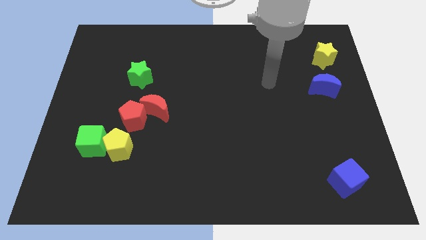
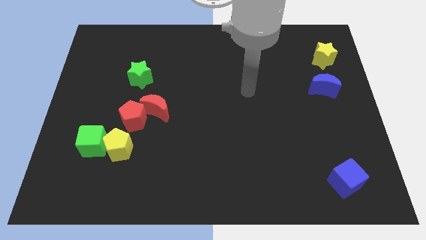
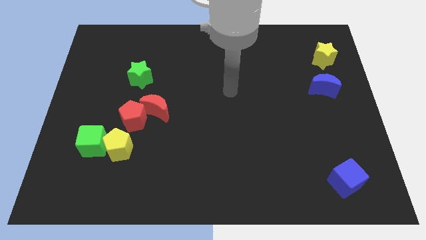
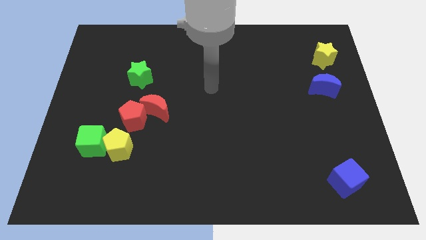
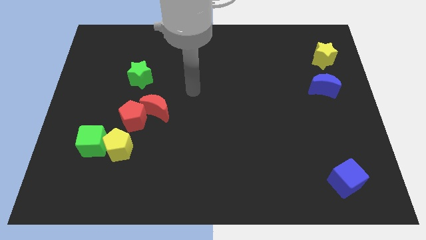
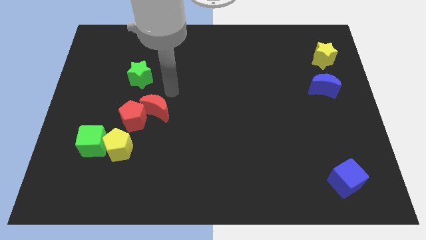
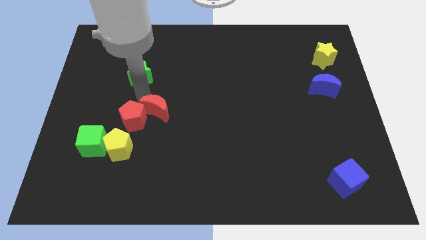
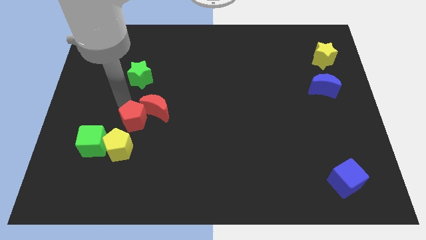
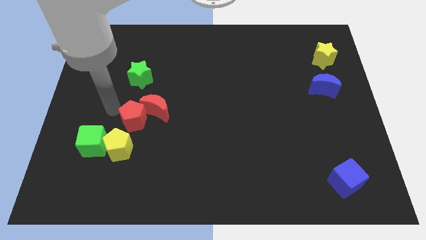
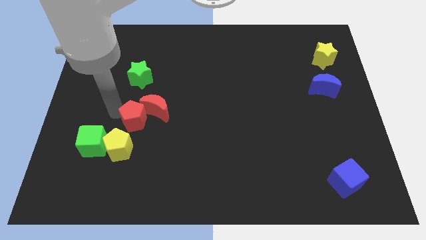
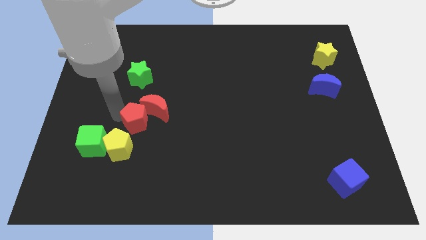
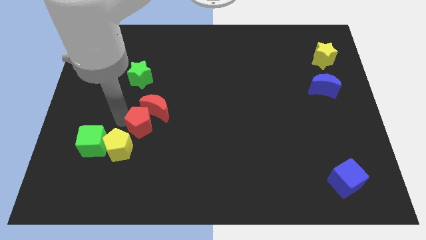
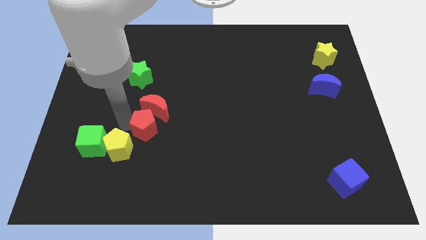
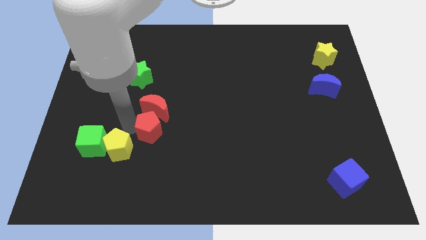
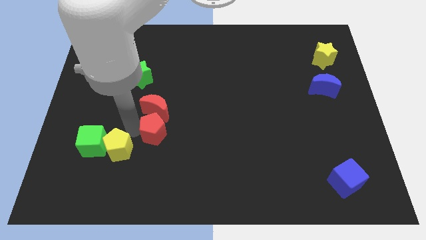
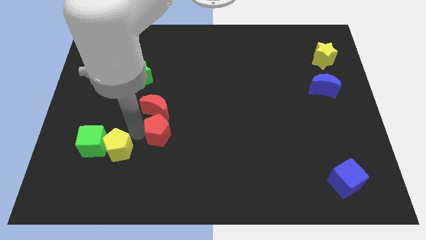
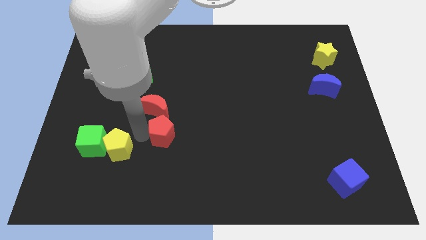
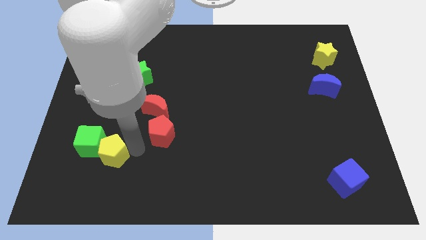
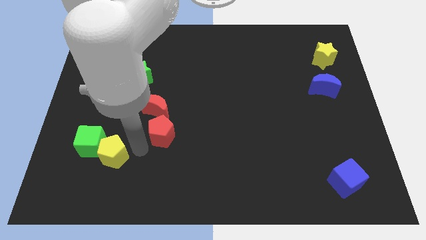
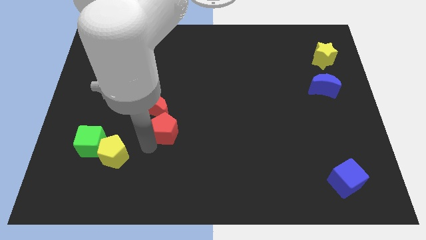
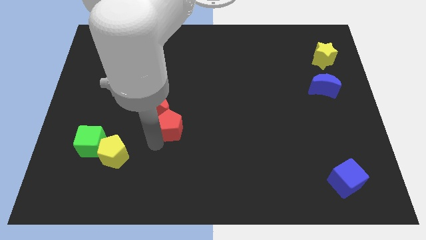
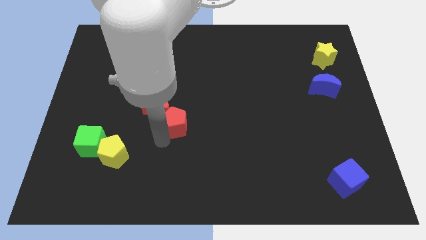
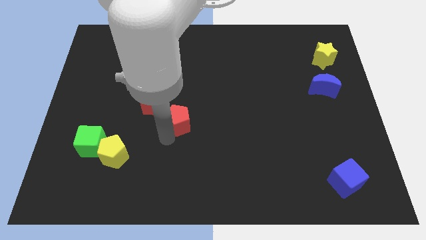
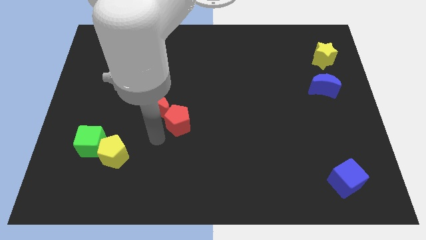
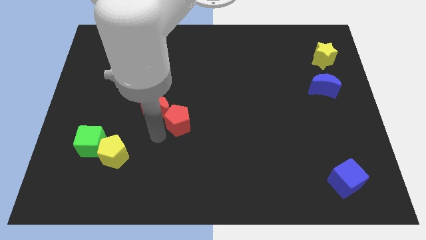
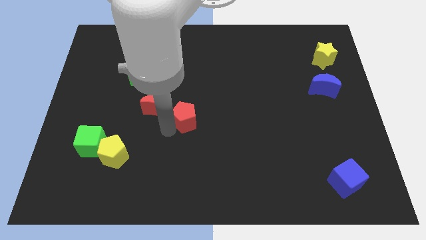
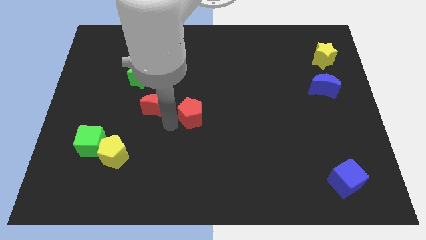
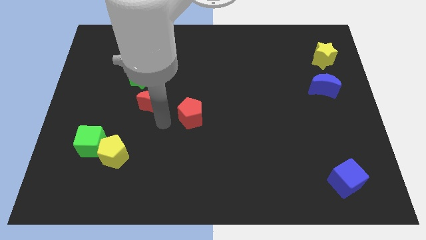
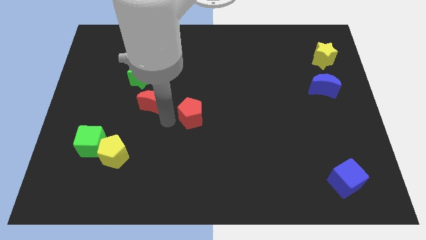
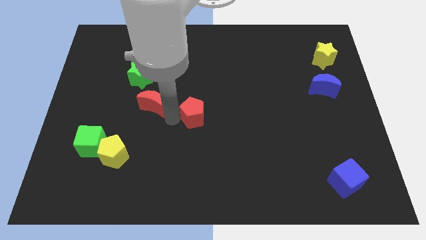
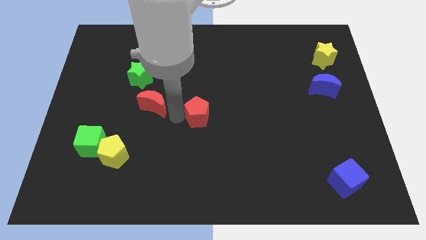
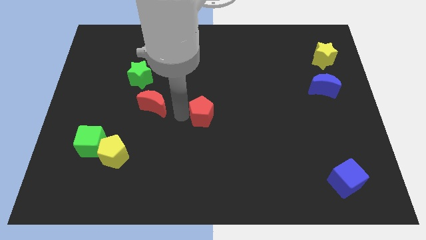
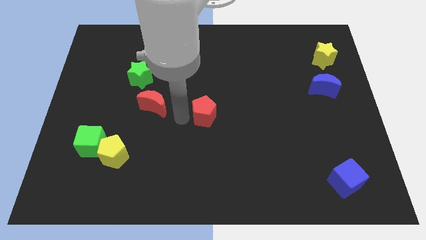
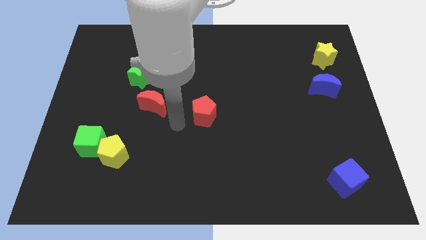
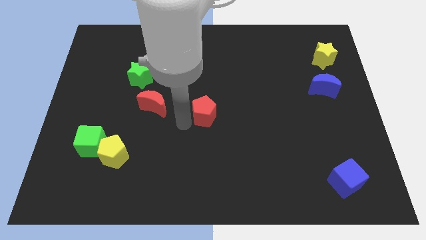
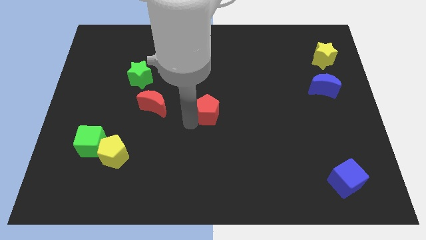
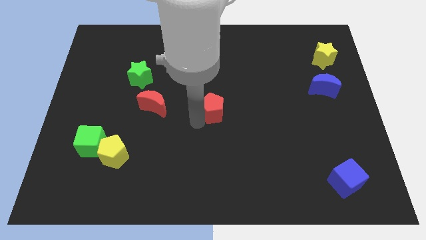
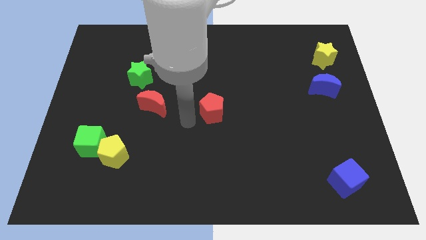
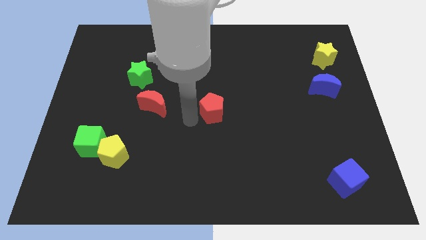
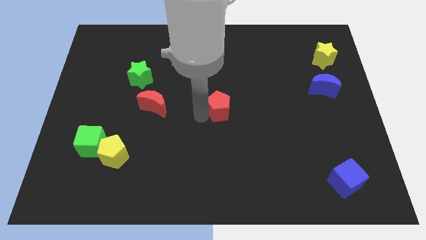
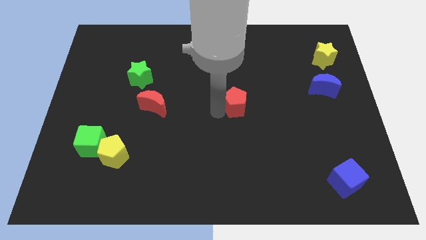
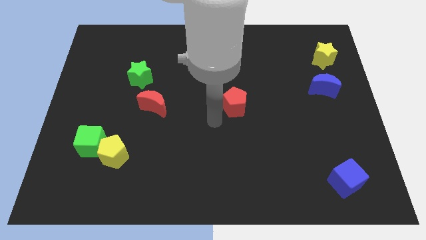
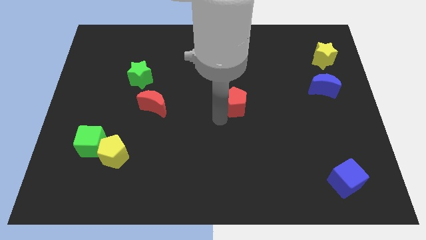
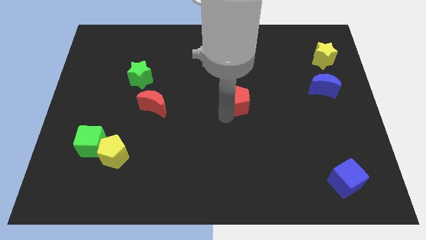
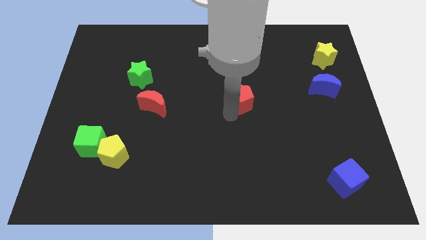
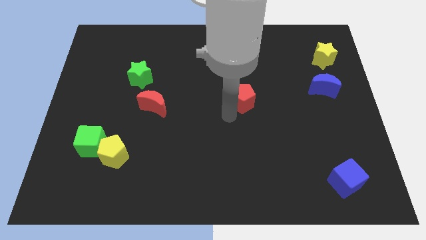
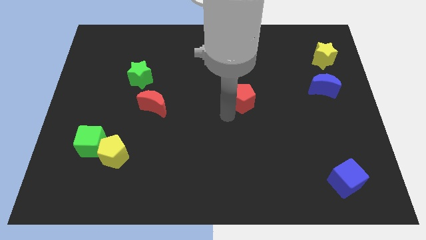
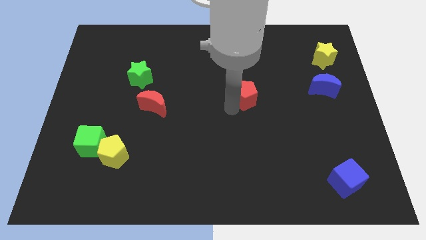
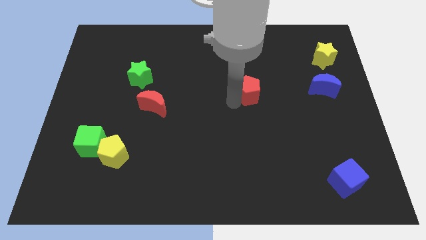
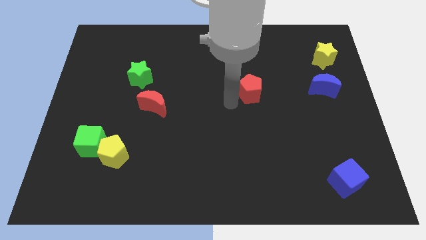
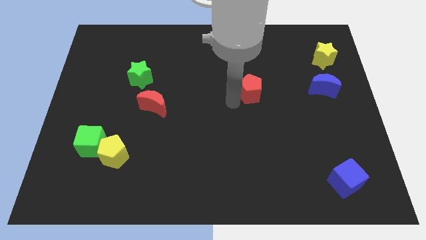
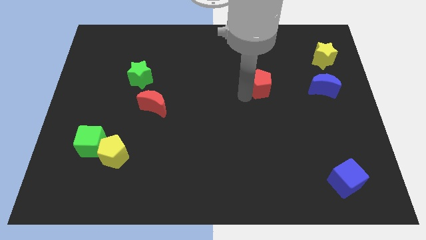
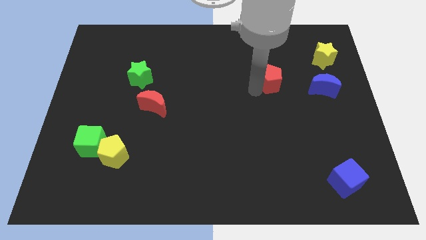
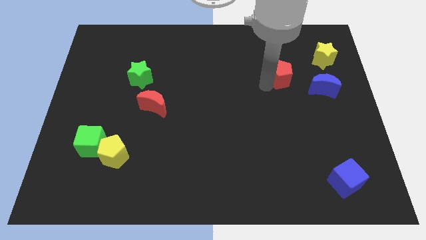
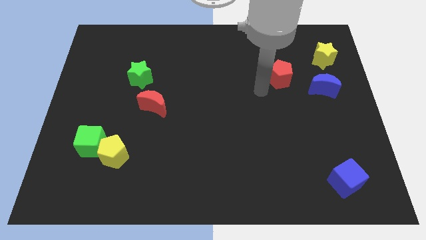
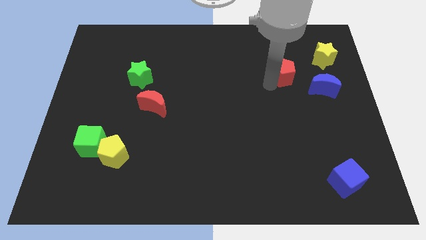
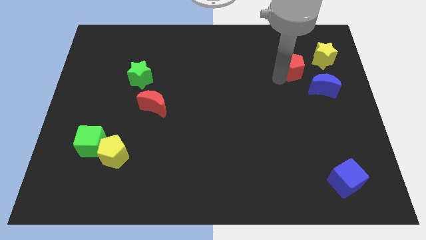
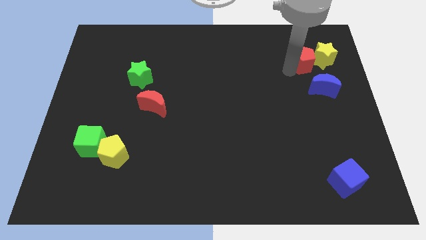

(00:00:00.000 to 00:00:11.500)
move the red pentagon close to the yellow star
